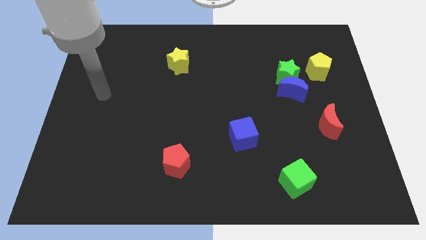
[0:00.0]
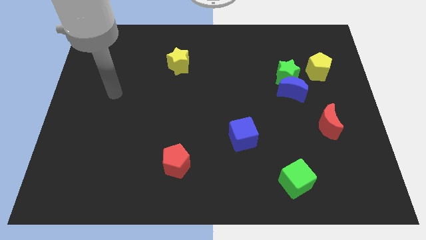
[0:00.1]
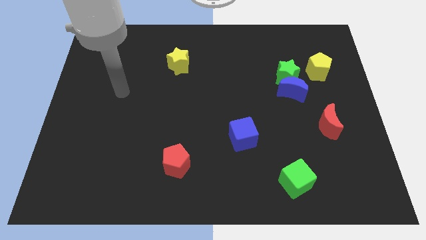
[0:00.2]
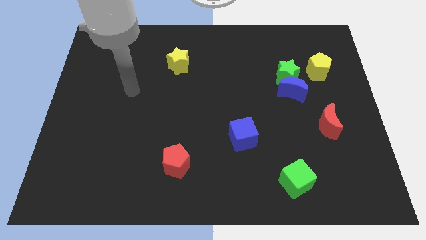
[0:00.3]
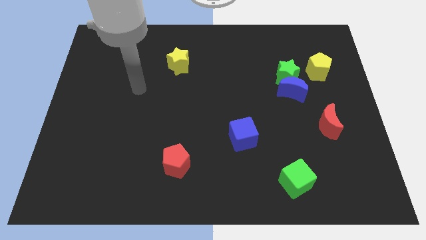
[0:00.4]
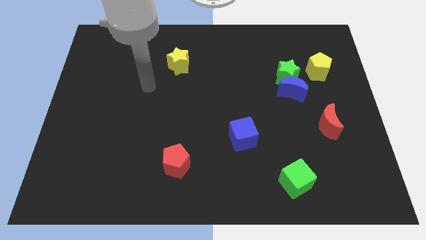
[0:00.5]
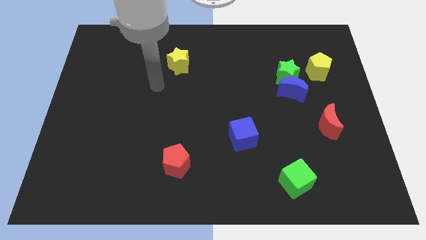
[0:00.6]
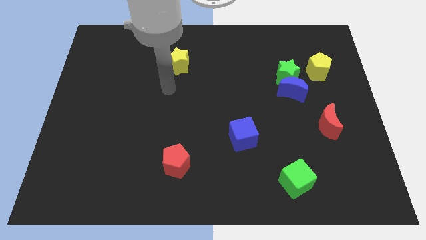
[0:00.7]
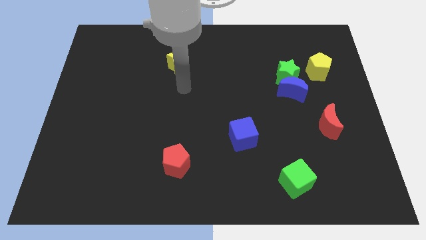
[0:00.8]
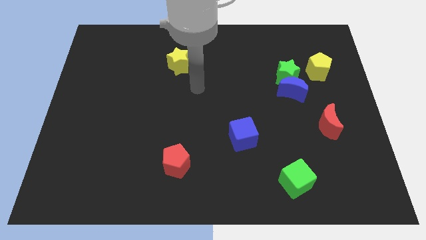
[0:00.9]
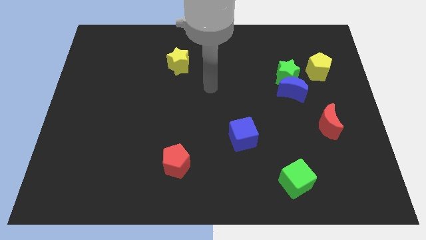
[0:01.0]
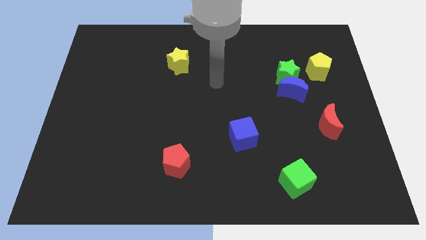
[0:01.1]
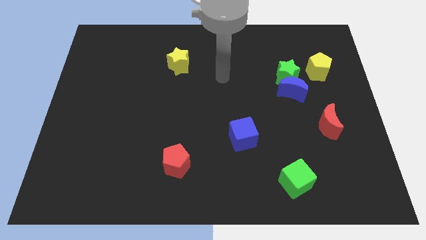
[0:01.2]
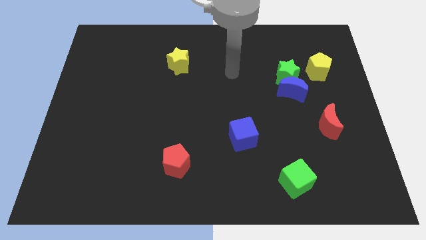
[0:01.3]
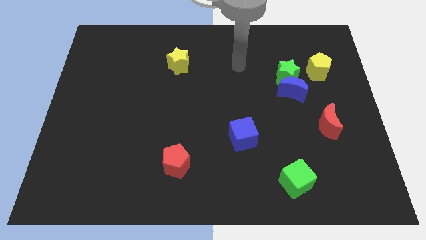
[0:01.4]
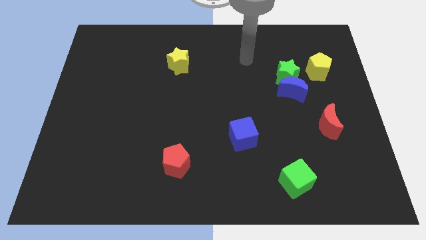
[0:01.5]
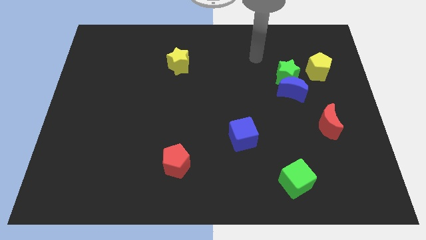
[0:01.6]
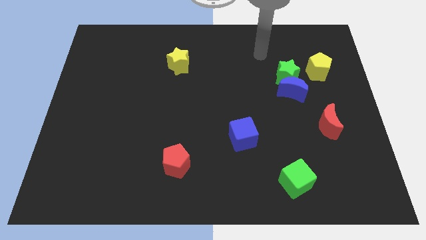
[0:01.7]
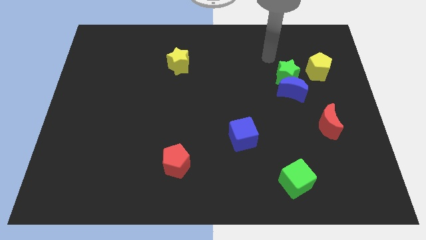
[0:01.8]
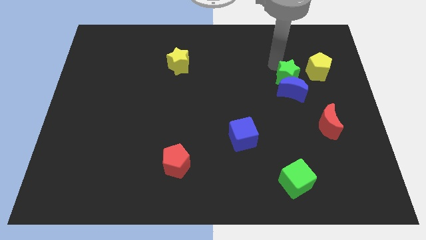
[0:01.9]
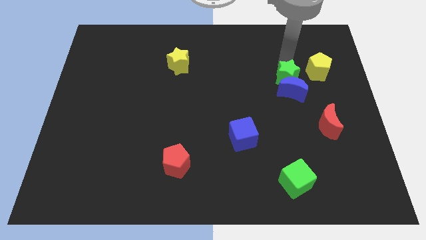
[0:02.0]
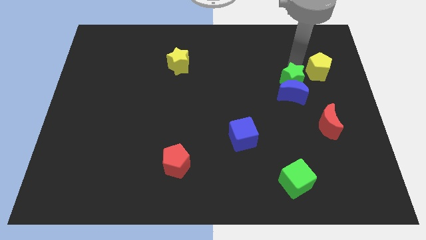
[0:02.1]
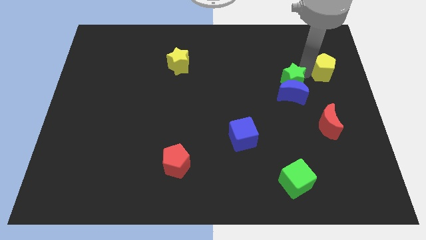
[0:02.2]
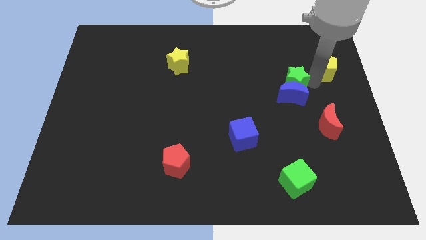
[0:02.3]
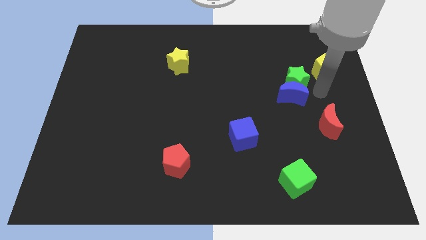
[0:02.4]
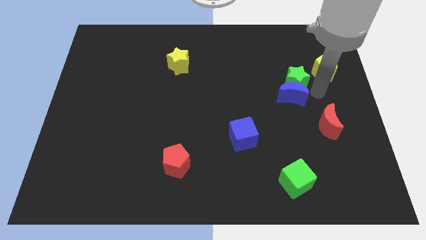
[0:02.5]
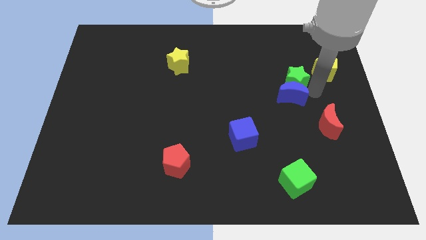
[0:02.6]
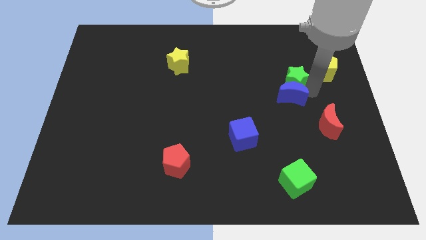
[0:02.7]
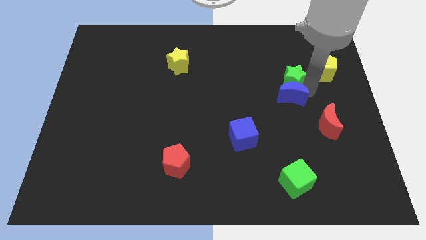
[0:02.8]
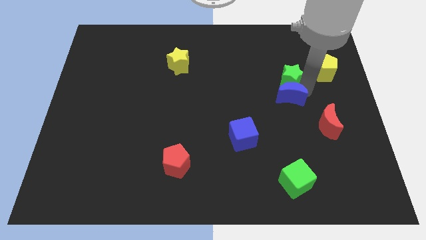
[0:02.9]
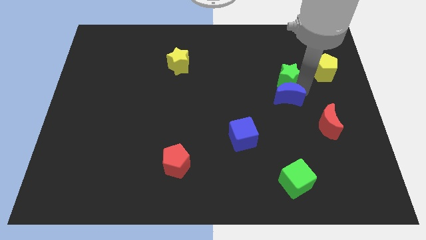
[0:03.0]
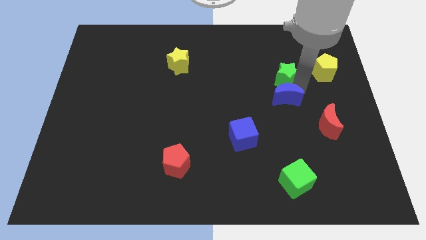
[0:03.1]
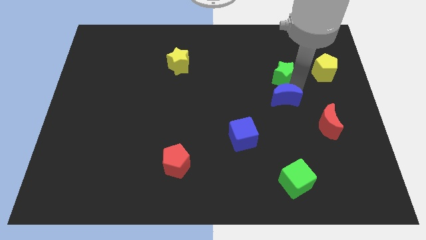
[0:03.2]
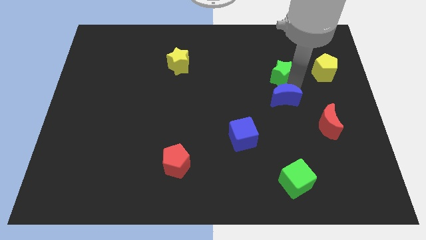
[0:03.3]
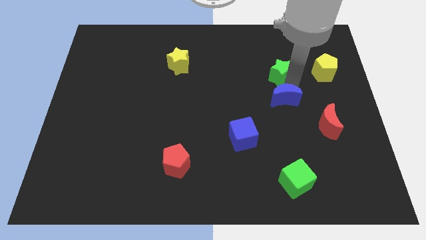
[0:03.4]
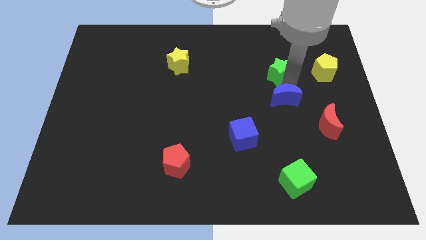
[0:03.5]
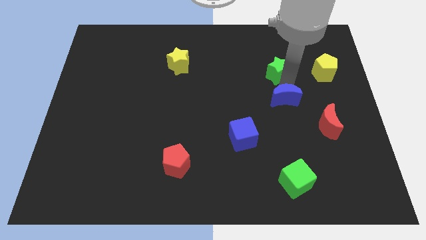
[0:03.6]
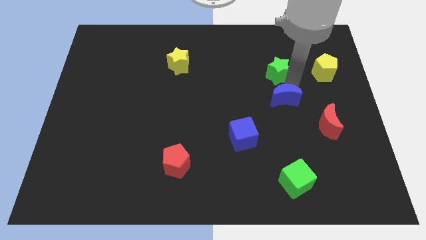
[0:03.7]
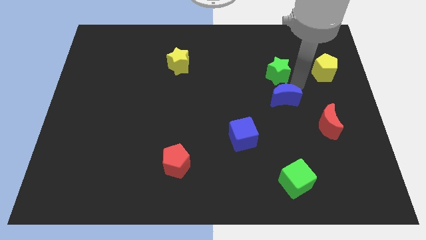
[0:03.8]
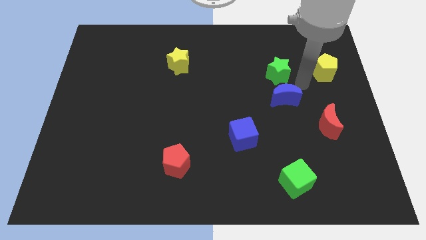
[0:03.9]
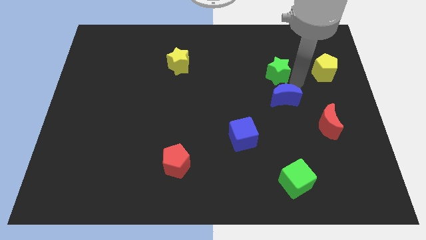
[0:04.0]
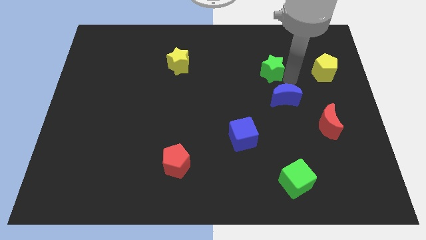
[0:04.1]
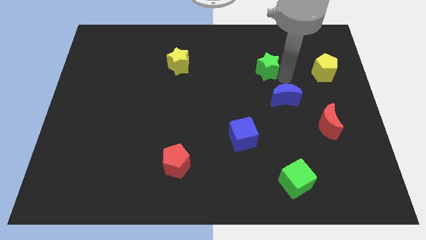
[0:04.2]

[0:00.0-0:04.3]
move the green star away from the blue moon and yellow pentagon

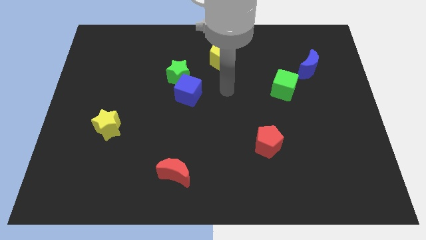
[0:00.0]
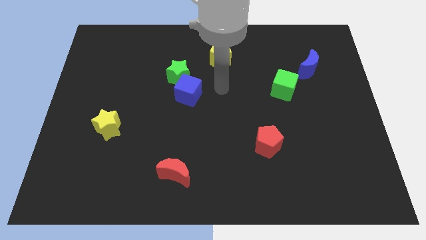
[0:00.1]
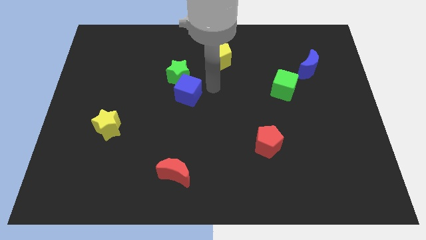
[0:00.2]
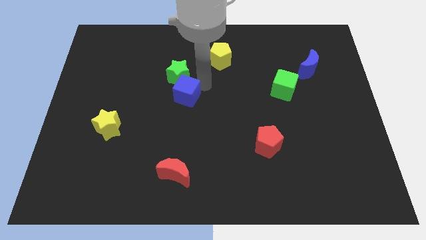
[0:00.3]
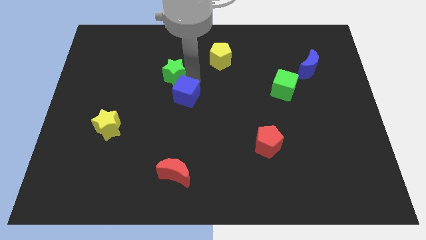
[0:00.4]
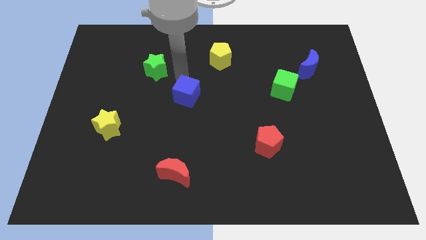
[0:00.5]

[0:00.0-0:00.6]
separate the blue cube from the green star

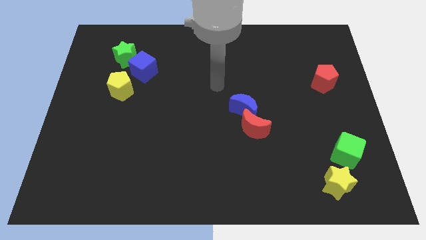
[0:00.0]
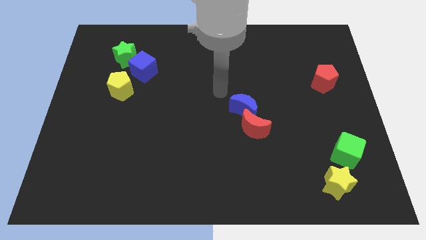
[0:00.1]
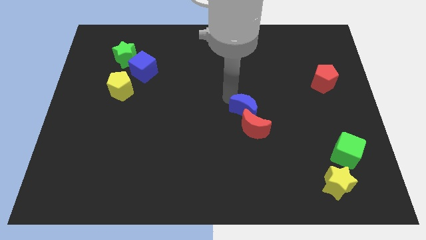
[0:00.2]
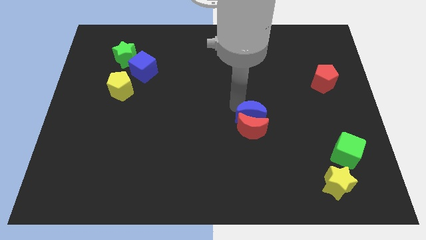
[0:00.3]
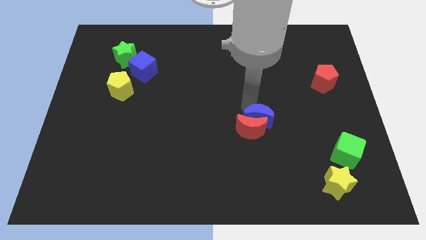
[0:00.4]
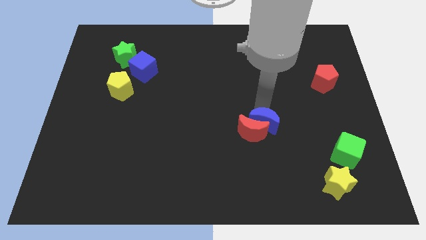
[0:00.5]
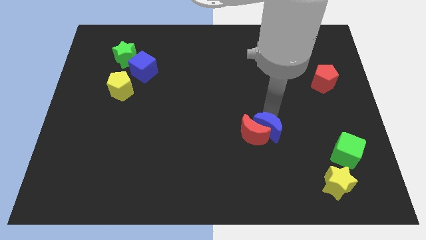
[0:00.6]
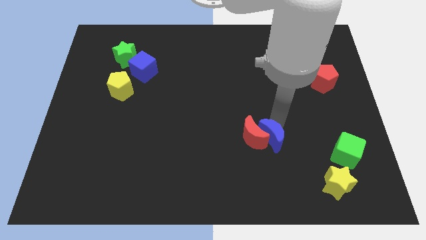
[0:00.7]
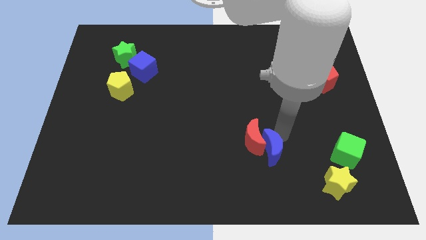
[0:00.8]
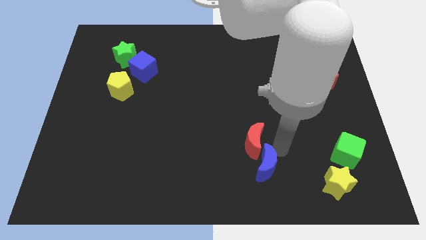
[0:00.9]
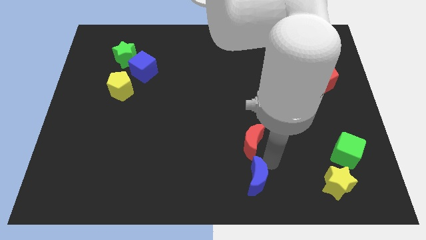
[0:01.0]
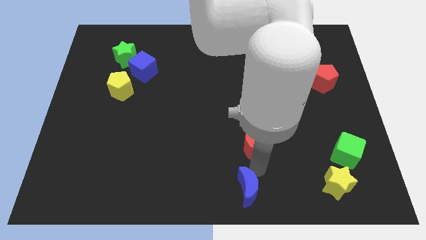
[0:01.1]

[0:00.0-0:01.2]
separate the red moon from the blue moon

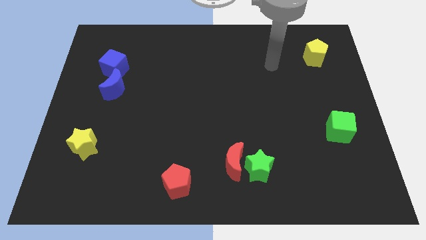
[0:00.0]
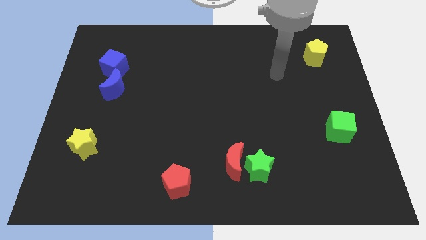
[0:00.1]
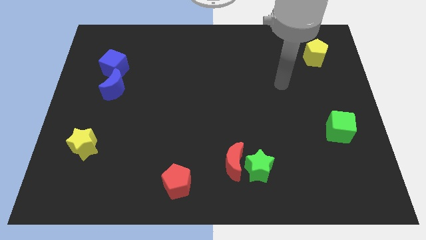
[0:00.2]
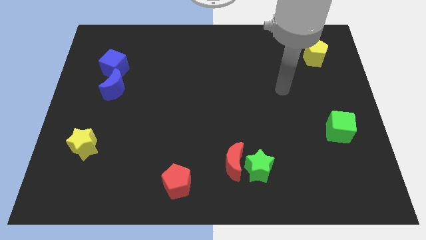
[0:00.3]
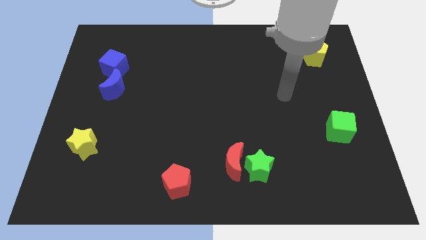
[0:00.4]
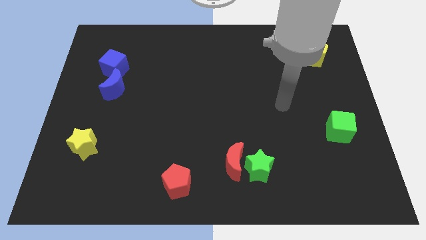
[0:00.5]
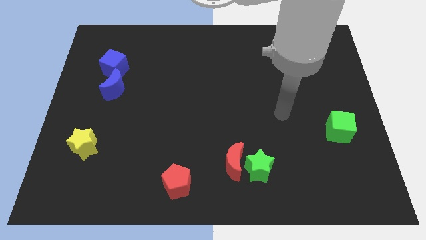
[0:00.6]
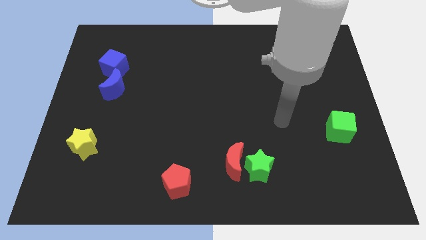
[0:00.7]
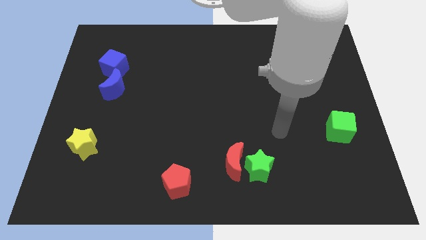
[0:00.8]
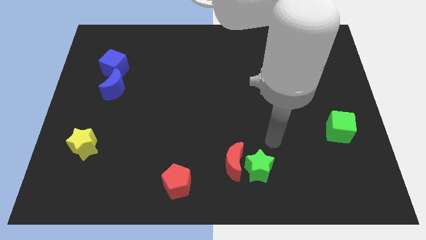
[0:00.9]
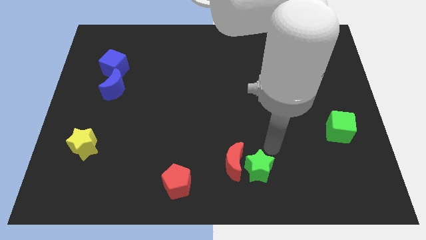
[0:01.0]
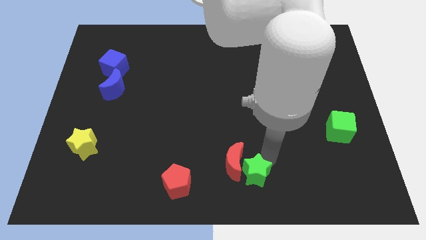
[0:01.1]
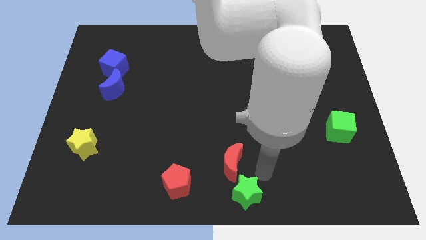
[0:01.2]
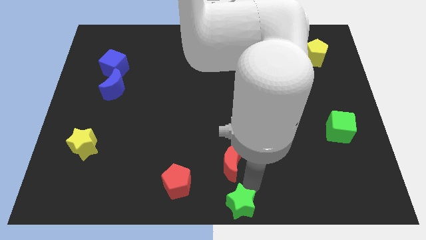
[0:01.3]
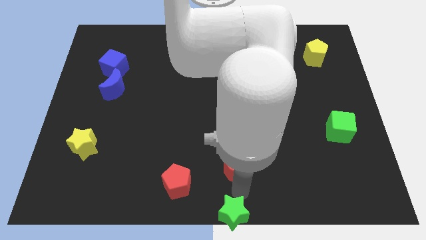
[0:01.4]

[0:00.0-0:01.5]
move the red moon away from the green star

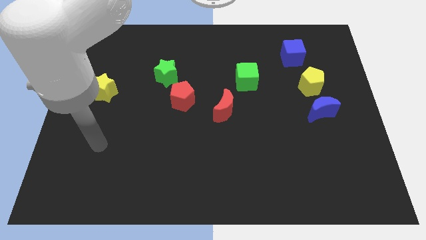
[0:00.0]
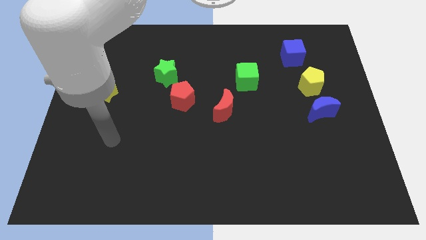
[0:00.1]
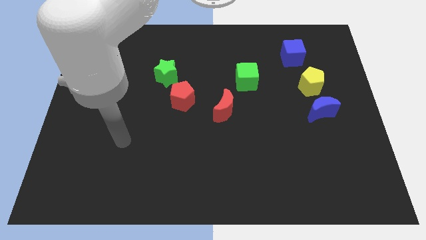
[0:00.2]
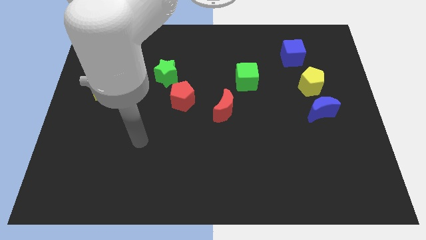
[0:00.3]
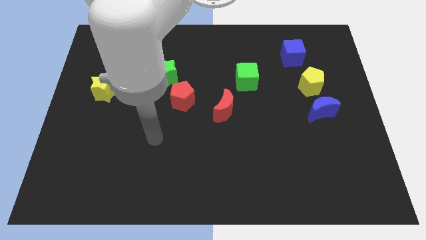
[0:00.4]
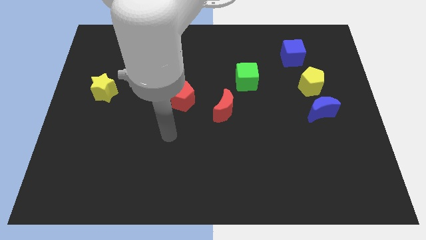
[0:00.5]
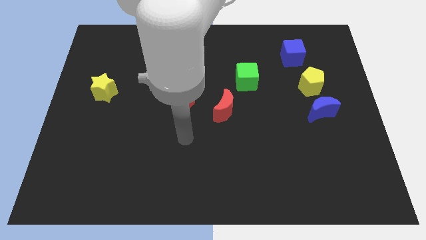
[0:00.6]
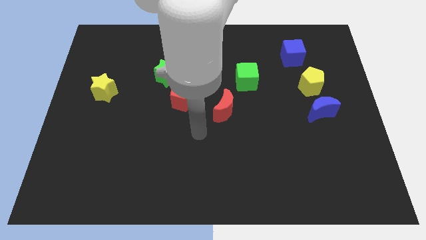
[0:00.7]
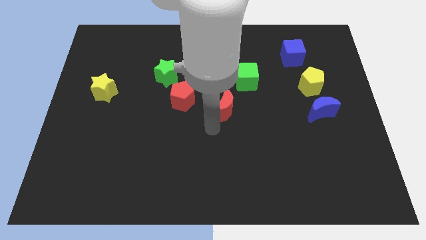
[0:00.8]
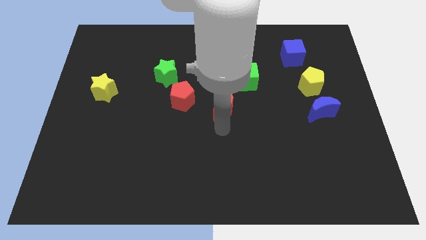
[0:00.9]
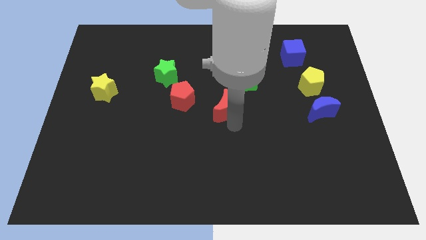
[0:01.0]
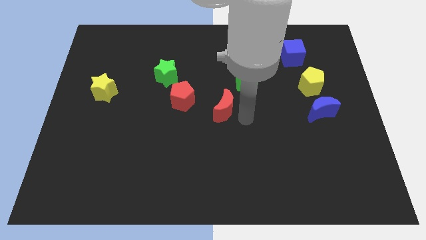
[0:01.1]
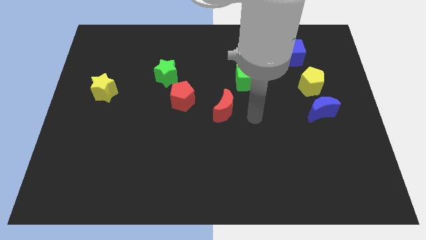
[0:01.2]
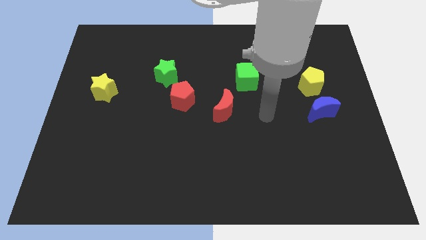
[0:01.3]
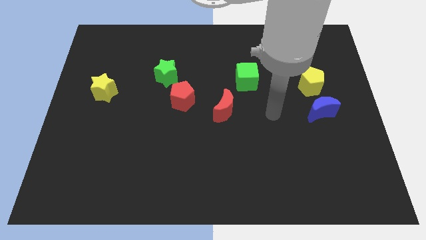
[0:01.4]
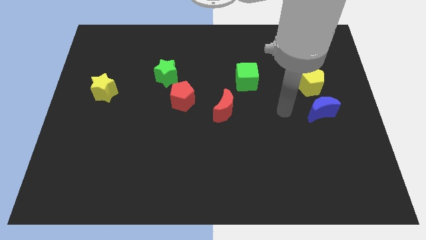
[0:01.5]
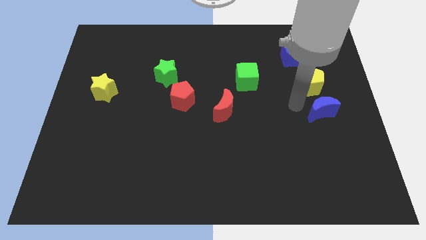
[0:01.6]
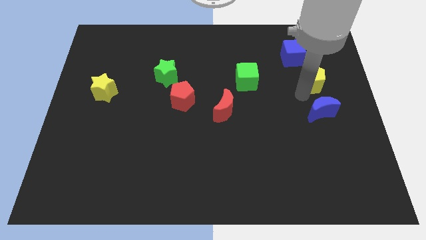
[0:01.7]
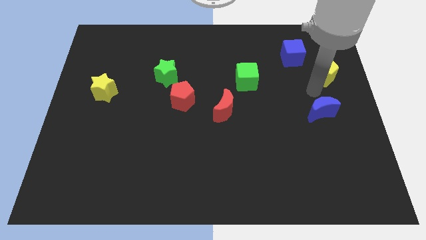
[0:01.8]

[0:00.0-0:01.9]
separate the blue moon from the yellow pentagon
